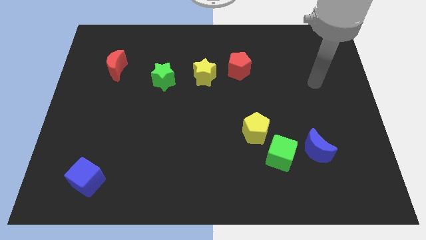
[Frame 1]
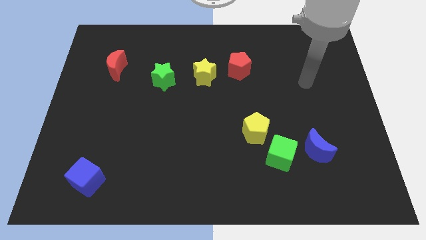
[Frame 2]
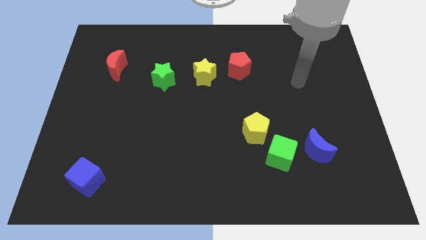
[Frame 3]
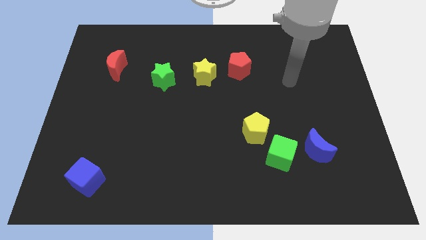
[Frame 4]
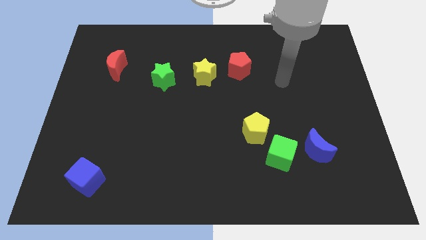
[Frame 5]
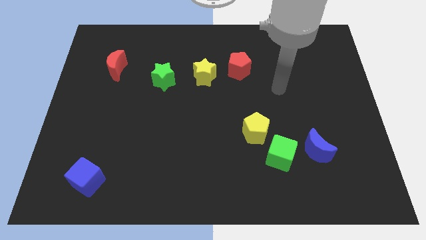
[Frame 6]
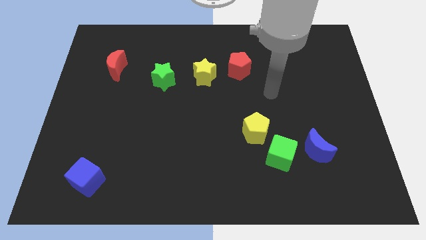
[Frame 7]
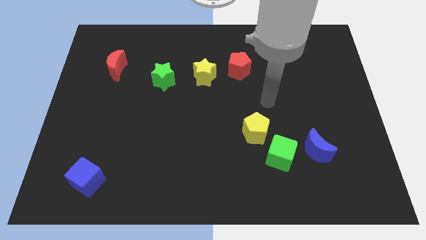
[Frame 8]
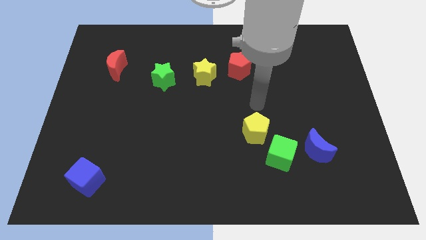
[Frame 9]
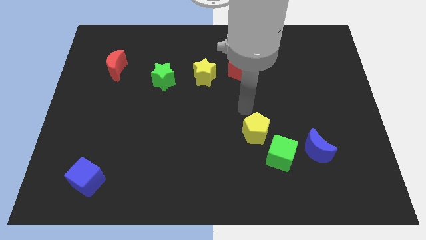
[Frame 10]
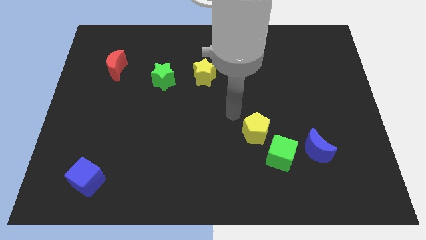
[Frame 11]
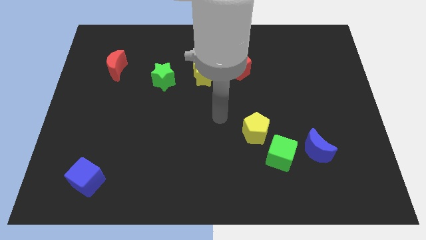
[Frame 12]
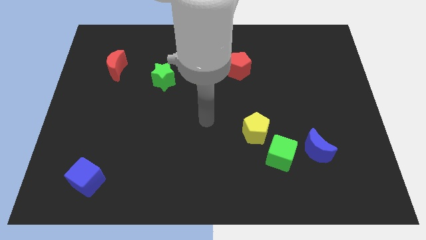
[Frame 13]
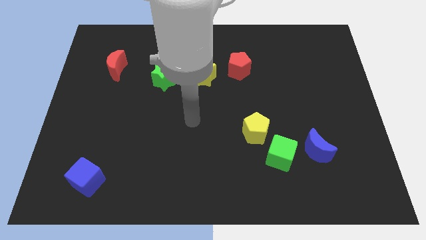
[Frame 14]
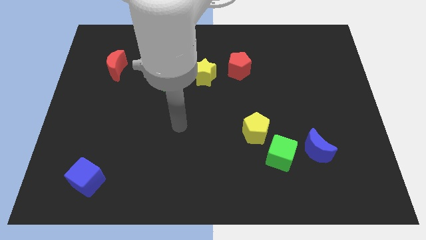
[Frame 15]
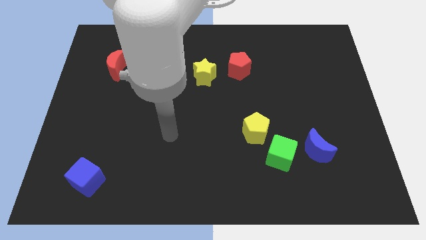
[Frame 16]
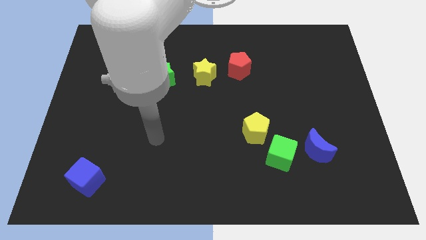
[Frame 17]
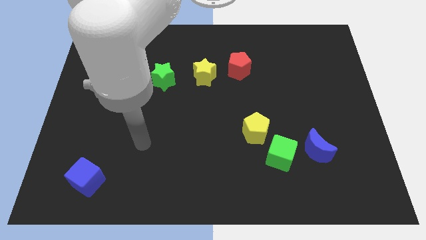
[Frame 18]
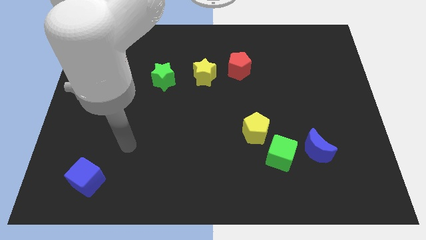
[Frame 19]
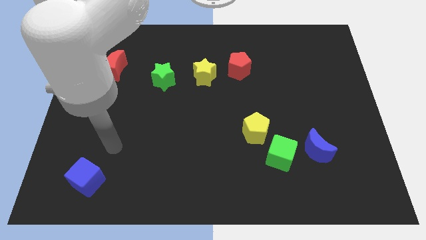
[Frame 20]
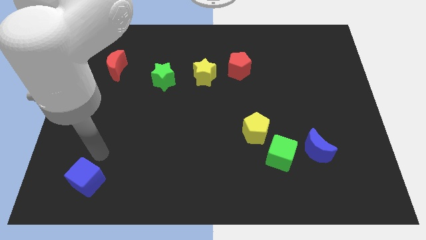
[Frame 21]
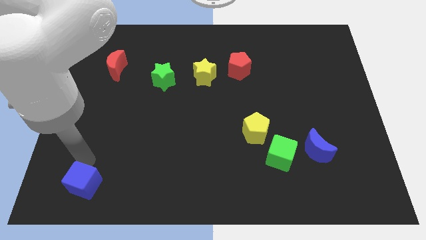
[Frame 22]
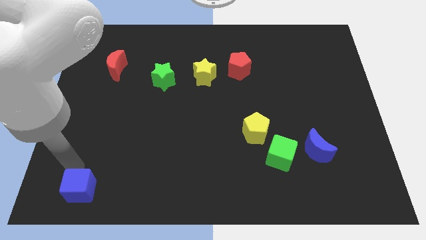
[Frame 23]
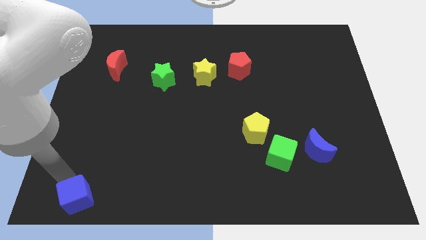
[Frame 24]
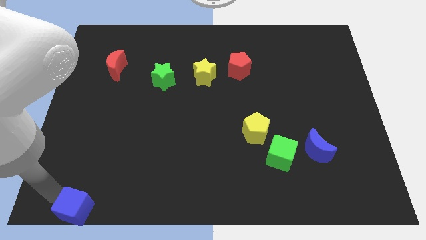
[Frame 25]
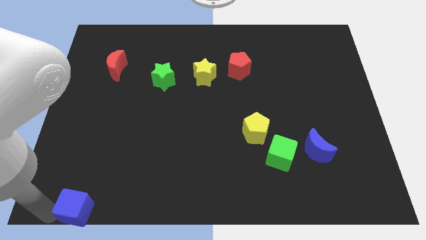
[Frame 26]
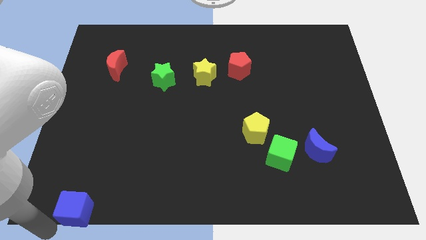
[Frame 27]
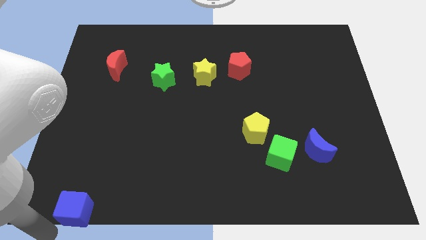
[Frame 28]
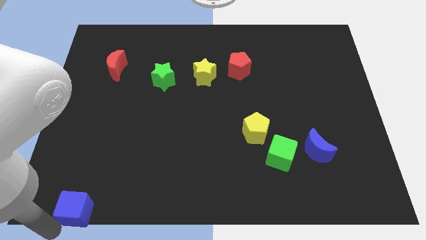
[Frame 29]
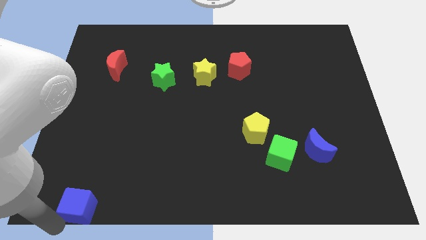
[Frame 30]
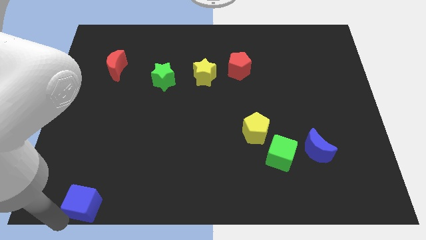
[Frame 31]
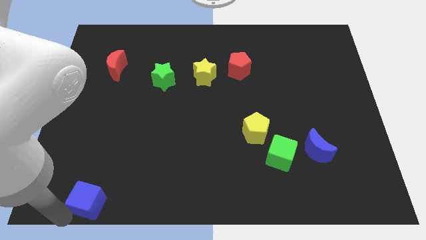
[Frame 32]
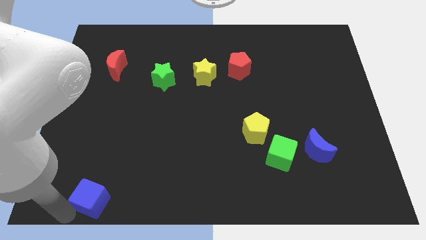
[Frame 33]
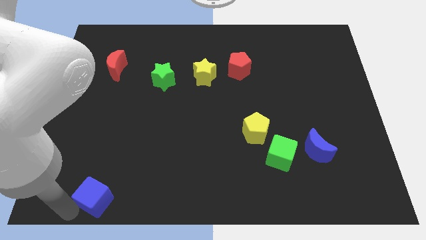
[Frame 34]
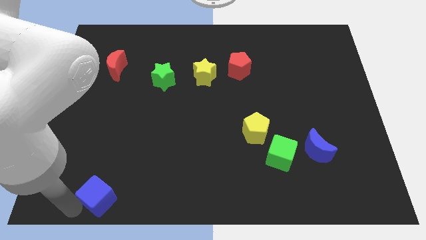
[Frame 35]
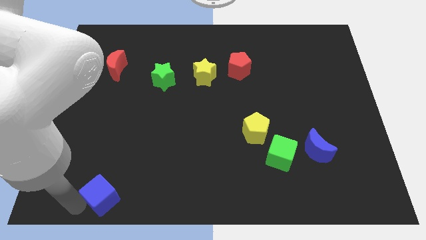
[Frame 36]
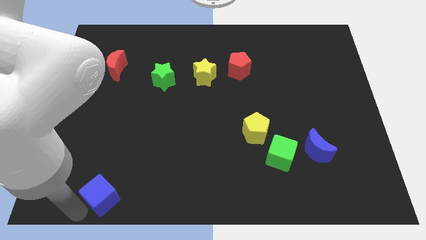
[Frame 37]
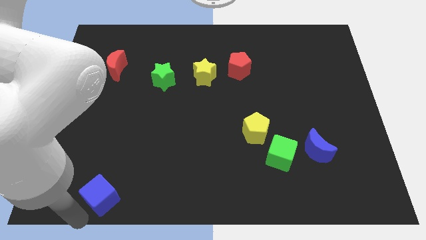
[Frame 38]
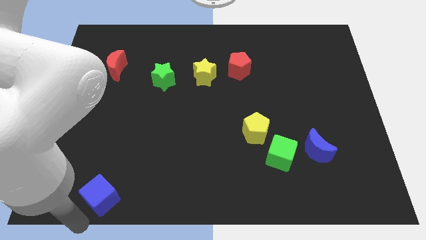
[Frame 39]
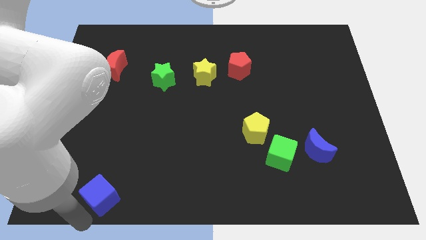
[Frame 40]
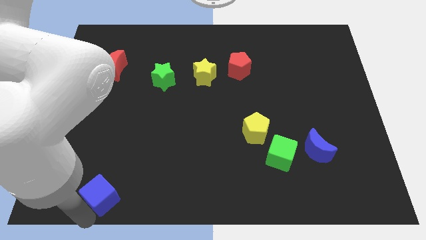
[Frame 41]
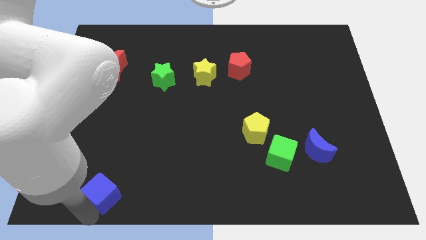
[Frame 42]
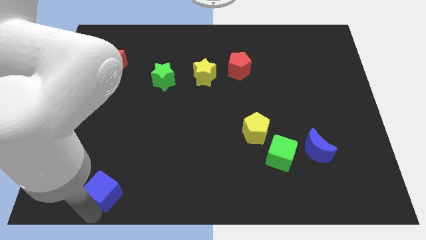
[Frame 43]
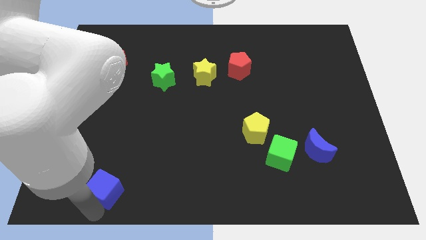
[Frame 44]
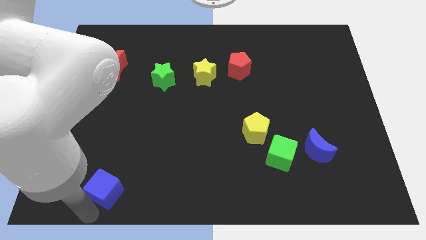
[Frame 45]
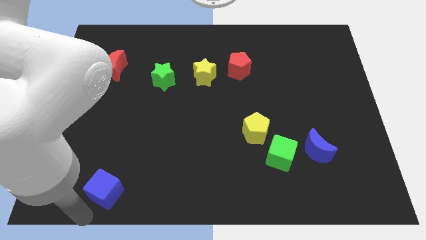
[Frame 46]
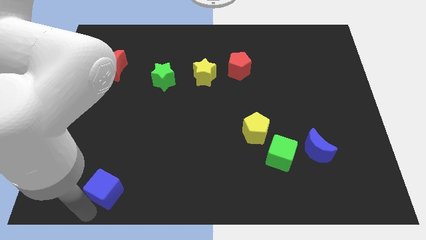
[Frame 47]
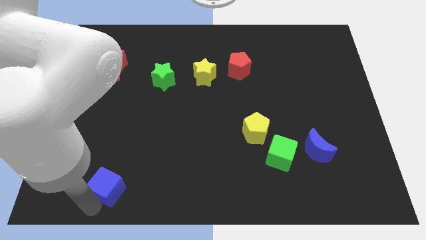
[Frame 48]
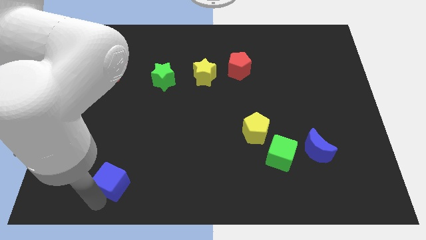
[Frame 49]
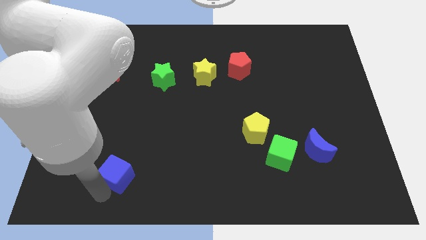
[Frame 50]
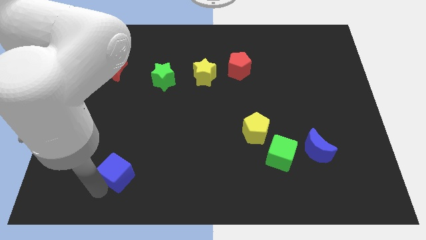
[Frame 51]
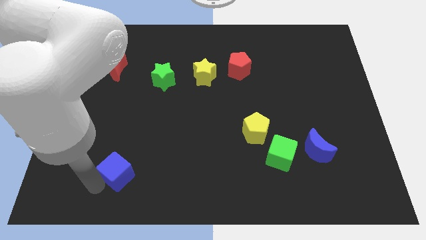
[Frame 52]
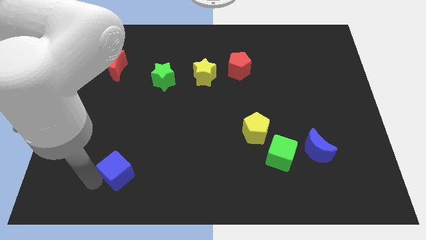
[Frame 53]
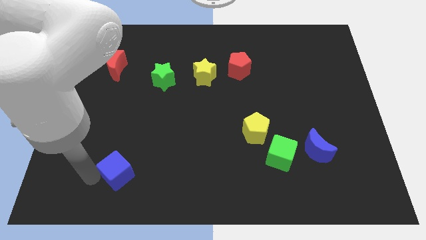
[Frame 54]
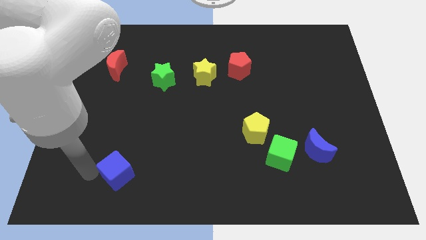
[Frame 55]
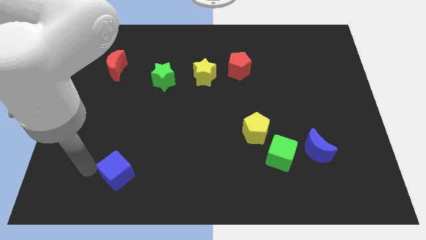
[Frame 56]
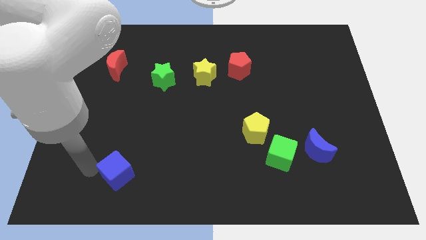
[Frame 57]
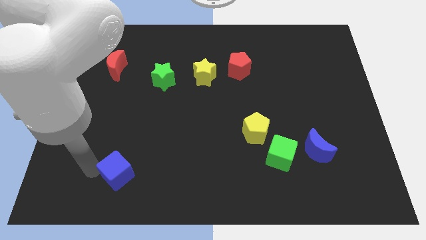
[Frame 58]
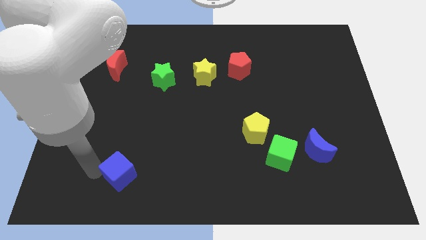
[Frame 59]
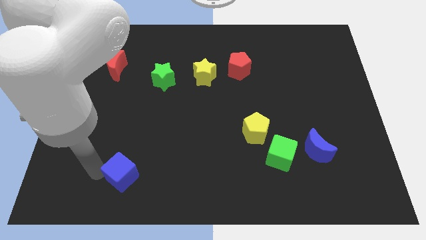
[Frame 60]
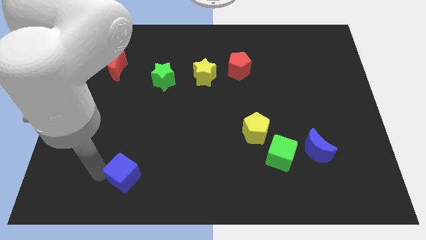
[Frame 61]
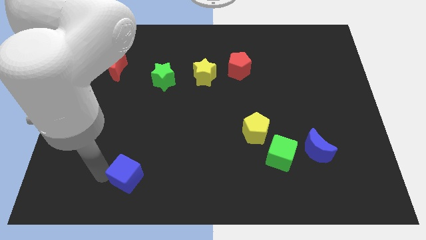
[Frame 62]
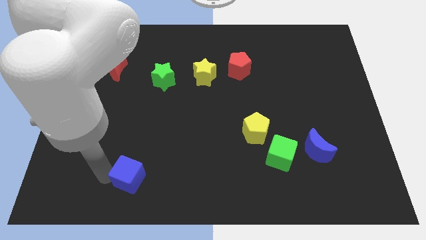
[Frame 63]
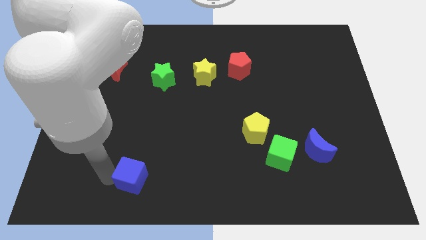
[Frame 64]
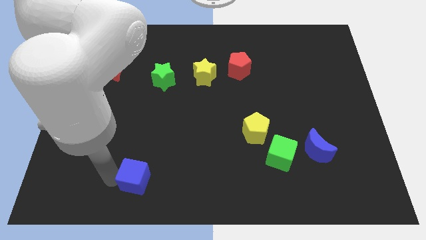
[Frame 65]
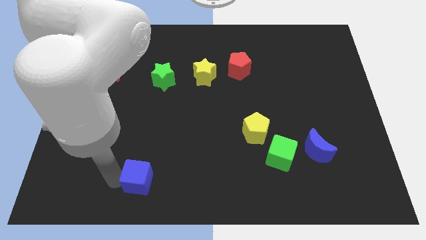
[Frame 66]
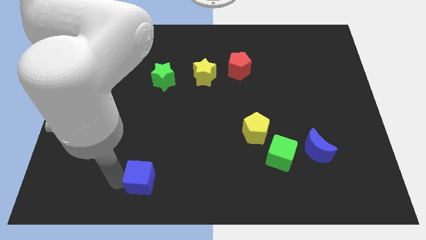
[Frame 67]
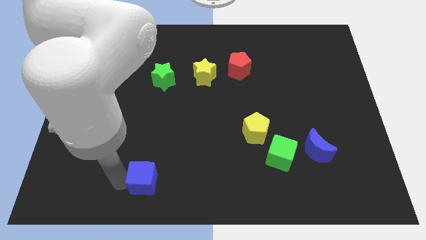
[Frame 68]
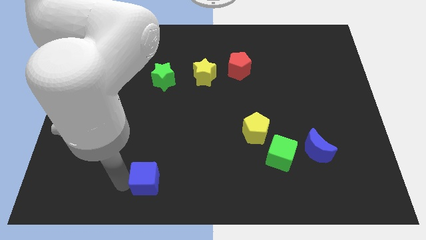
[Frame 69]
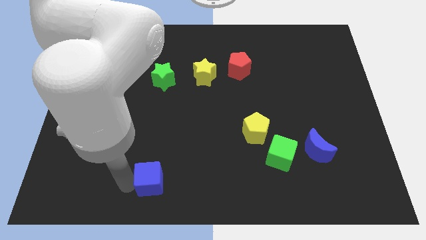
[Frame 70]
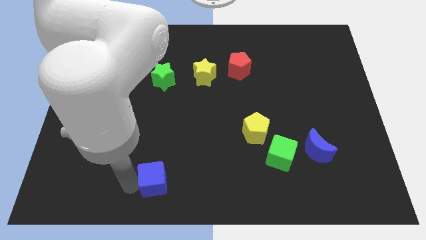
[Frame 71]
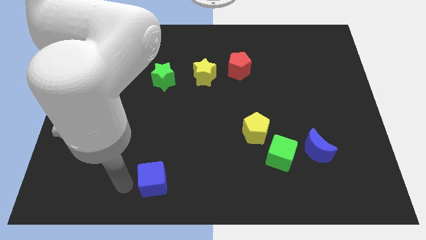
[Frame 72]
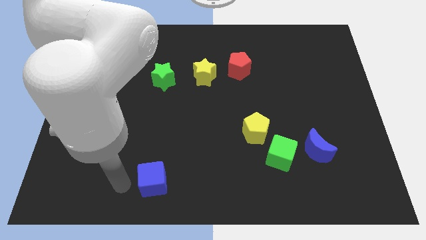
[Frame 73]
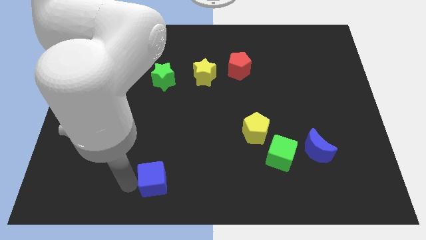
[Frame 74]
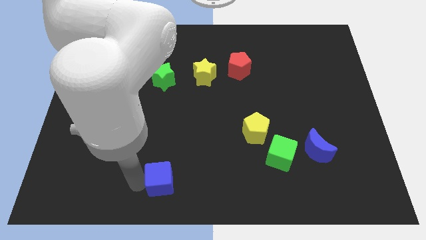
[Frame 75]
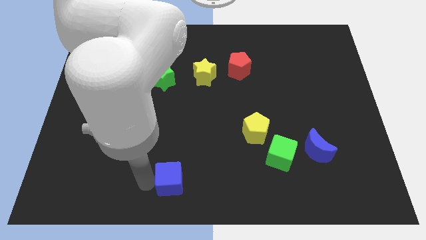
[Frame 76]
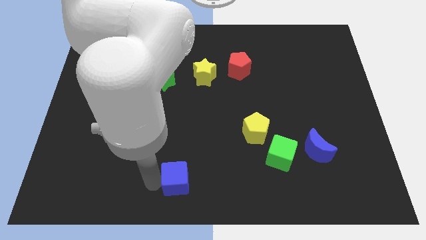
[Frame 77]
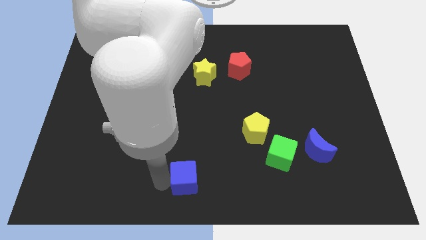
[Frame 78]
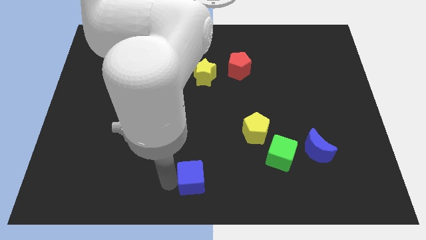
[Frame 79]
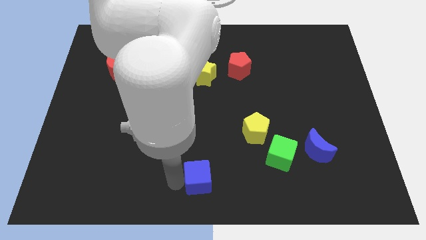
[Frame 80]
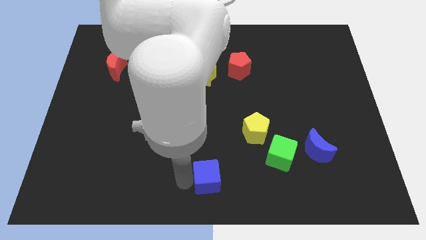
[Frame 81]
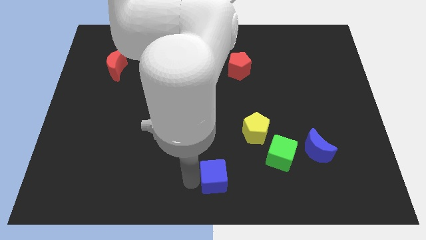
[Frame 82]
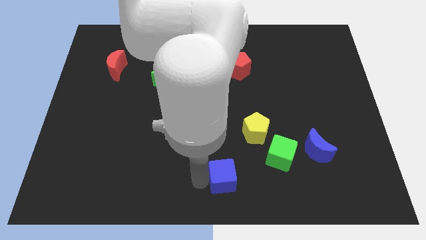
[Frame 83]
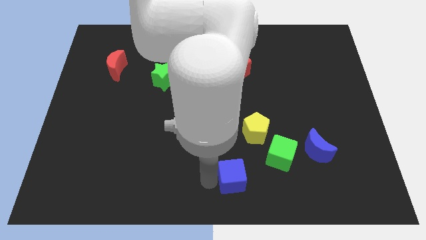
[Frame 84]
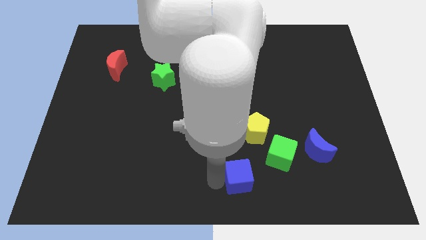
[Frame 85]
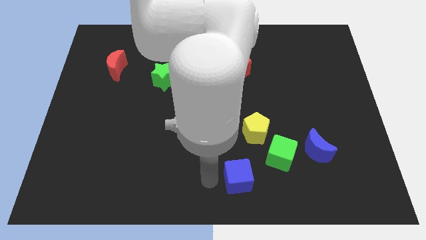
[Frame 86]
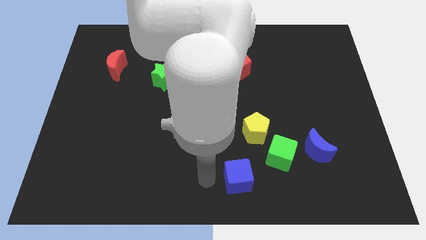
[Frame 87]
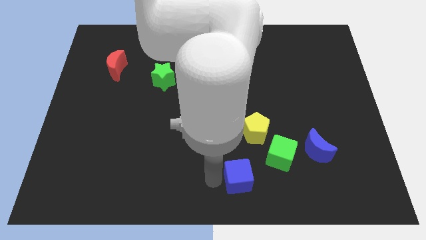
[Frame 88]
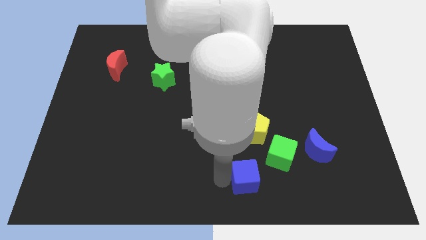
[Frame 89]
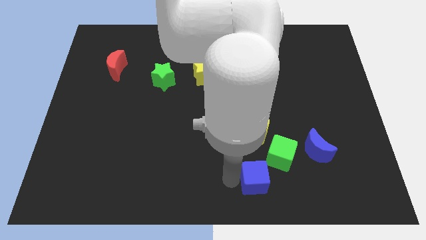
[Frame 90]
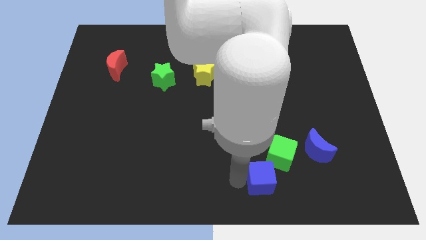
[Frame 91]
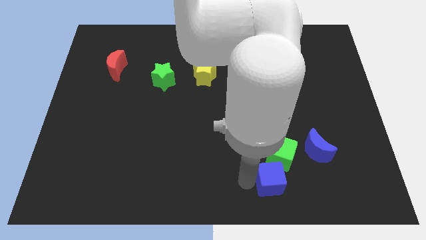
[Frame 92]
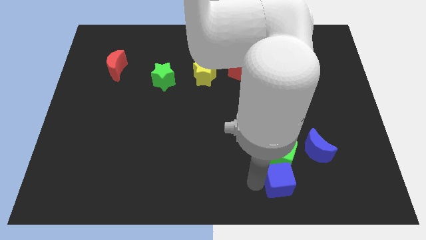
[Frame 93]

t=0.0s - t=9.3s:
push the blue cube to the bottom left of the blue moon
